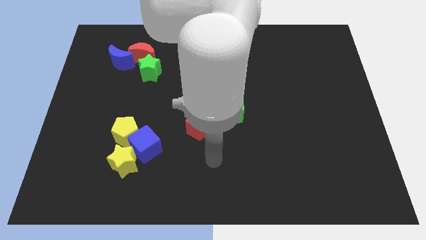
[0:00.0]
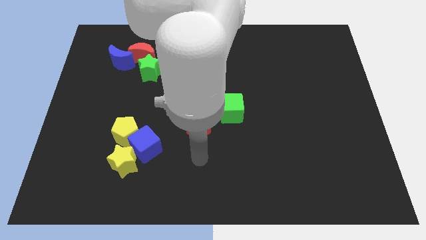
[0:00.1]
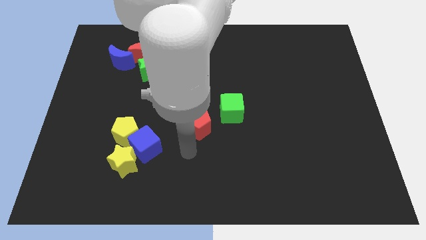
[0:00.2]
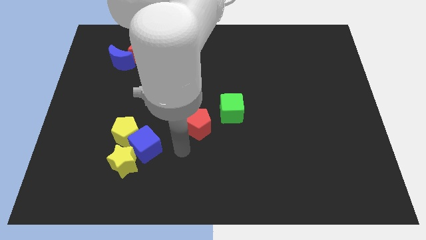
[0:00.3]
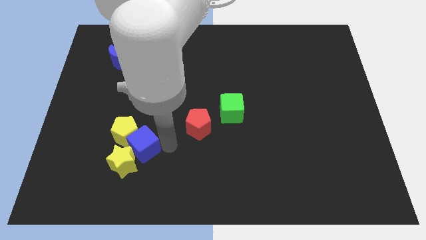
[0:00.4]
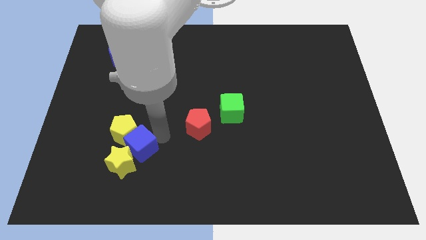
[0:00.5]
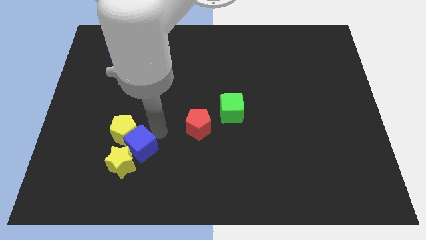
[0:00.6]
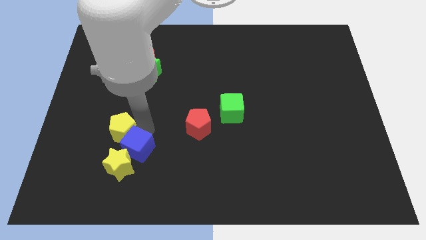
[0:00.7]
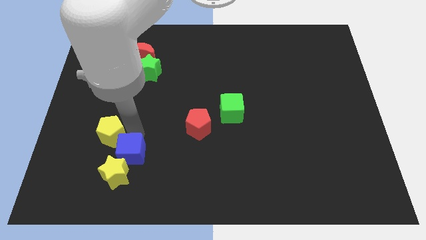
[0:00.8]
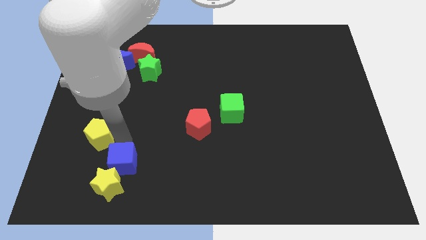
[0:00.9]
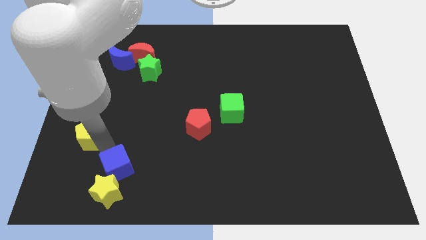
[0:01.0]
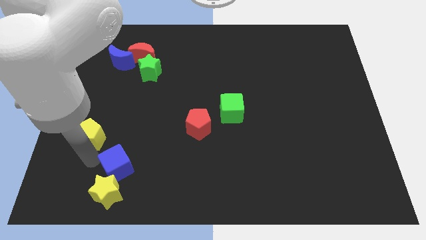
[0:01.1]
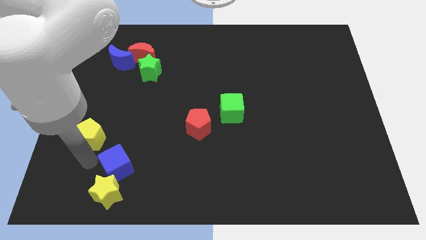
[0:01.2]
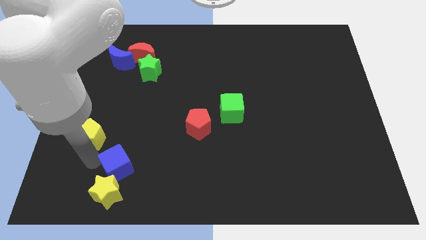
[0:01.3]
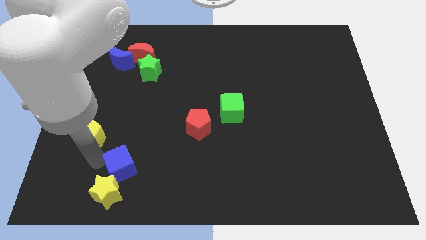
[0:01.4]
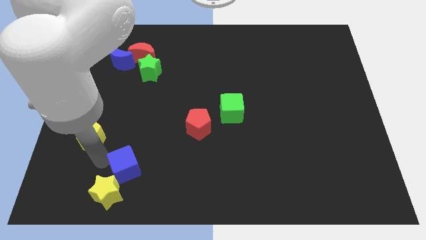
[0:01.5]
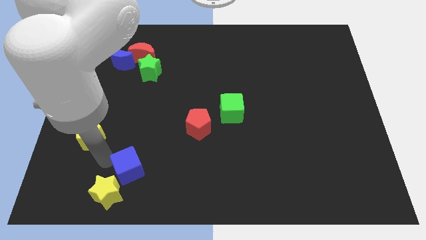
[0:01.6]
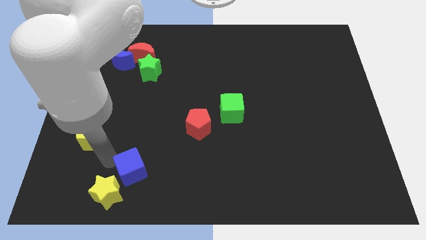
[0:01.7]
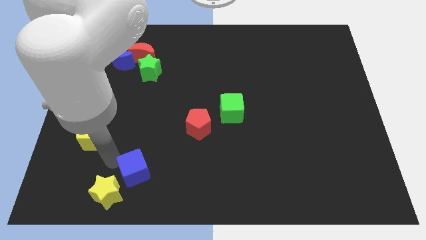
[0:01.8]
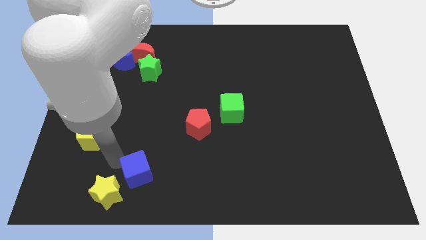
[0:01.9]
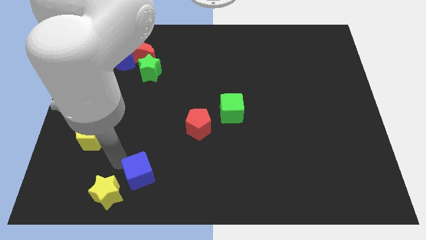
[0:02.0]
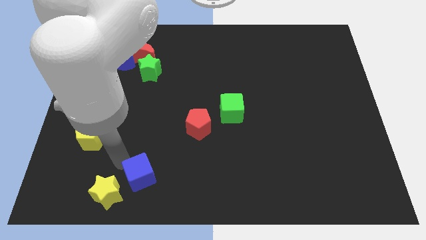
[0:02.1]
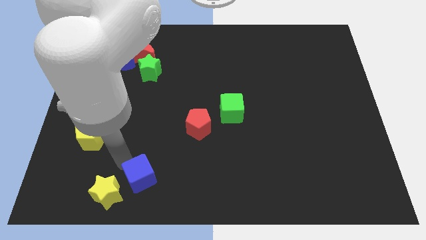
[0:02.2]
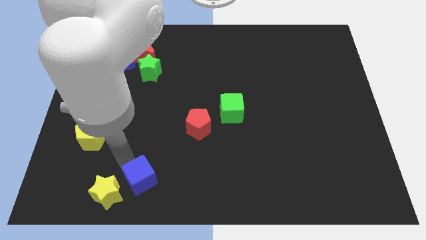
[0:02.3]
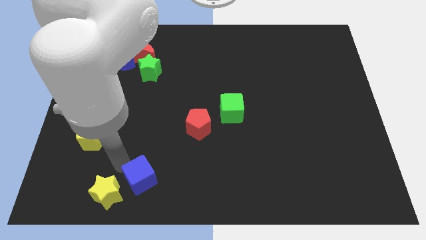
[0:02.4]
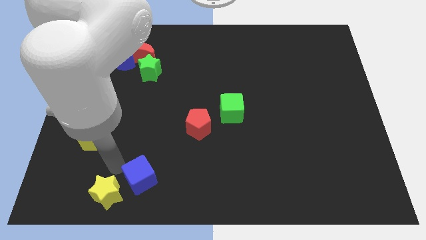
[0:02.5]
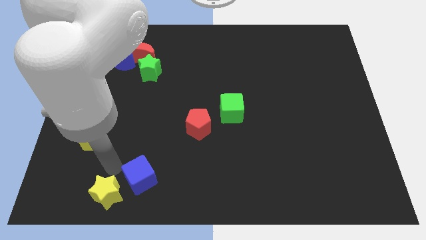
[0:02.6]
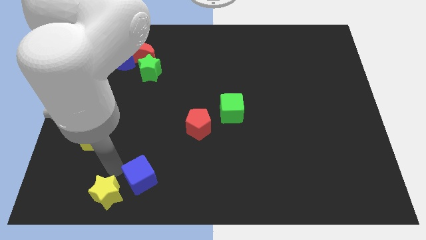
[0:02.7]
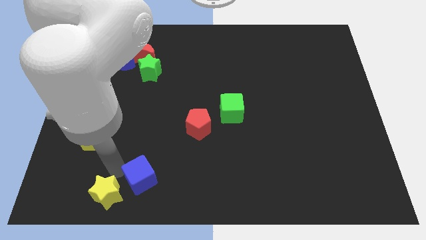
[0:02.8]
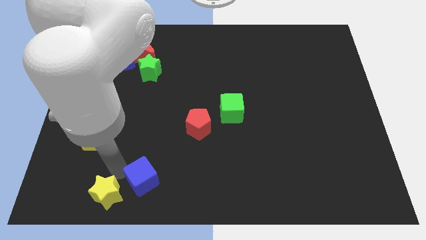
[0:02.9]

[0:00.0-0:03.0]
separate the blue cube from the yellow pentagon and yellow star

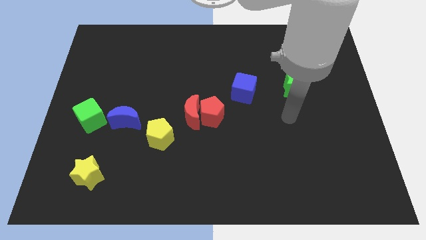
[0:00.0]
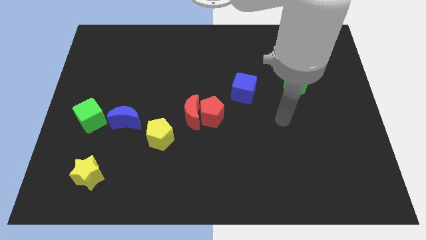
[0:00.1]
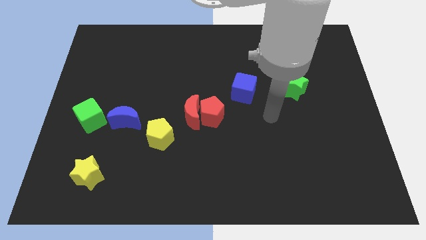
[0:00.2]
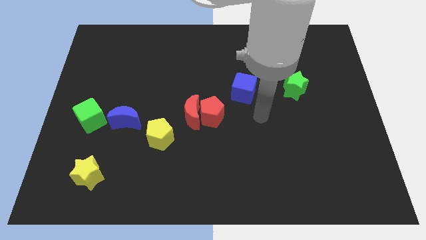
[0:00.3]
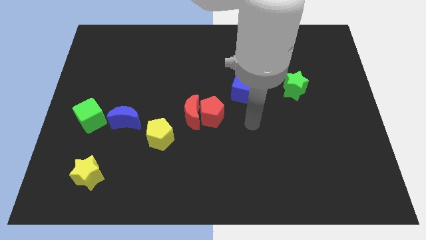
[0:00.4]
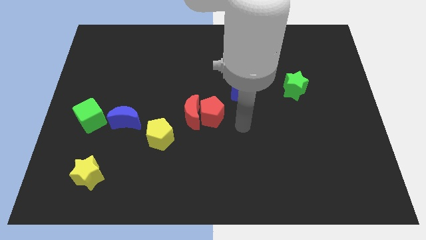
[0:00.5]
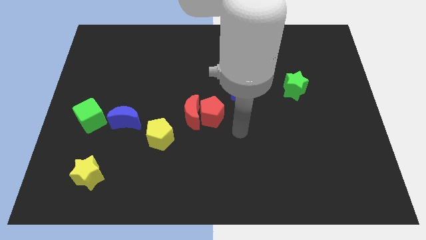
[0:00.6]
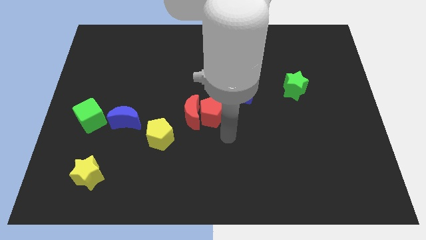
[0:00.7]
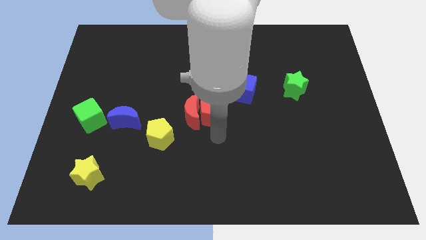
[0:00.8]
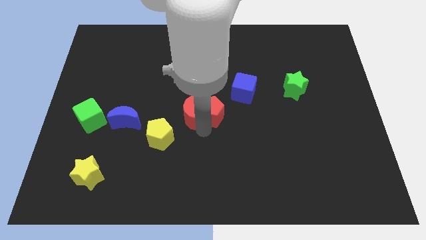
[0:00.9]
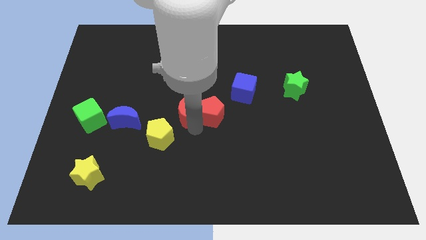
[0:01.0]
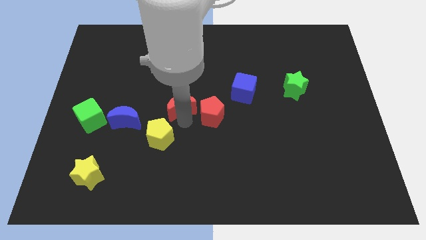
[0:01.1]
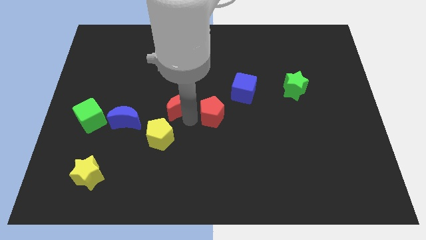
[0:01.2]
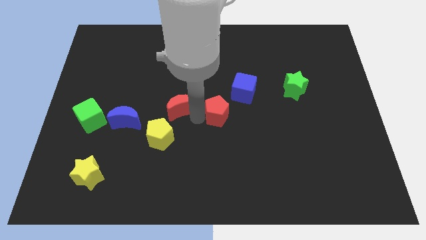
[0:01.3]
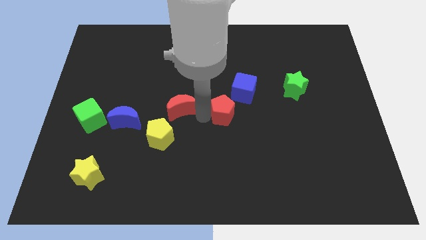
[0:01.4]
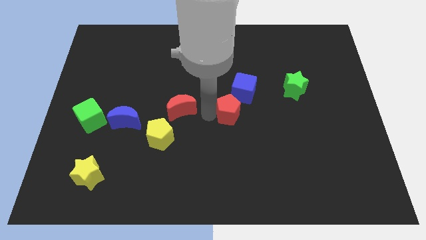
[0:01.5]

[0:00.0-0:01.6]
separate the red pentagon from the red moon

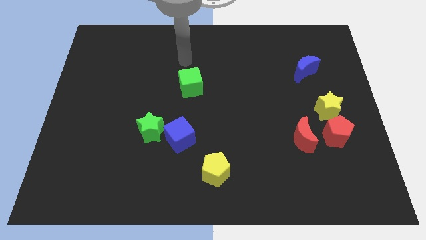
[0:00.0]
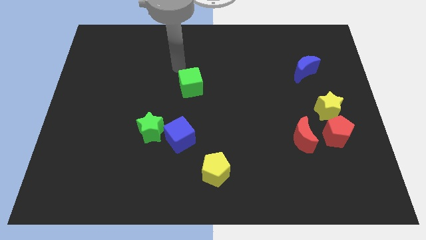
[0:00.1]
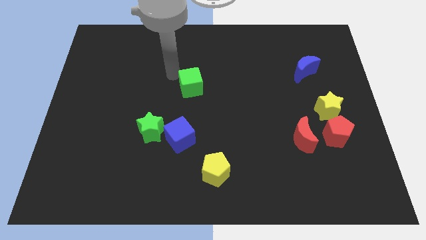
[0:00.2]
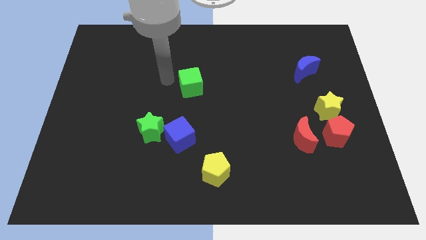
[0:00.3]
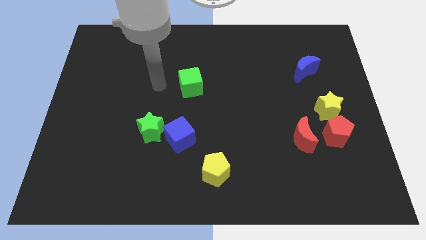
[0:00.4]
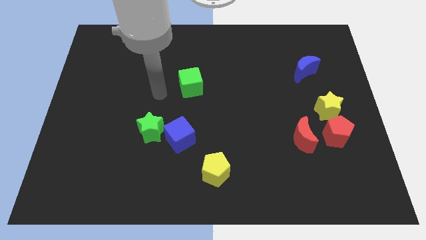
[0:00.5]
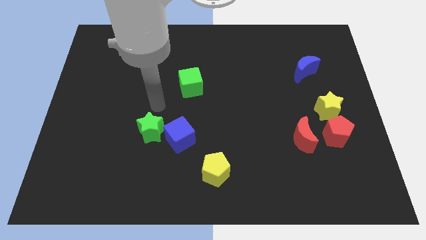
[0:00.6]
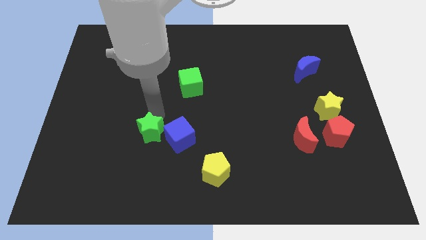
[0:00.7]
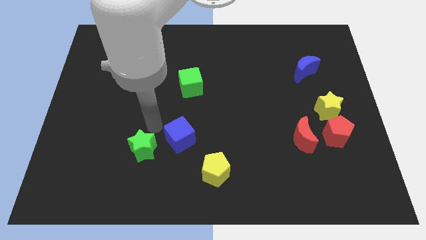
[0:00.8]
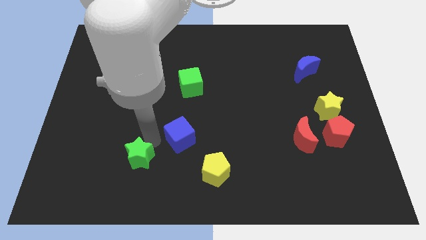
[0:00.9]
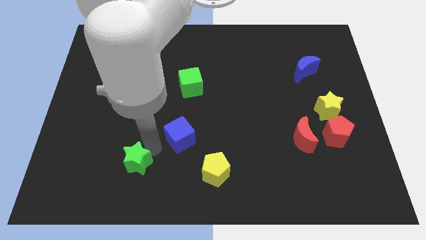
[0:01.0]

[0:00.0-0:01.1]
pull the blue cube apart from the green star

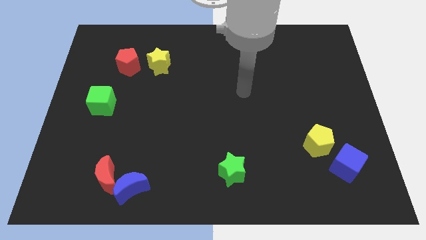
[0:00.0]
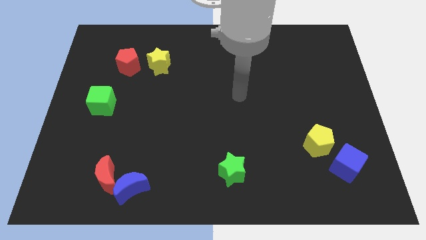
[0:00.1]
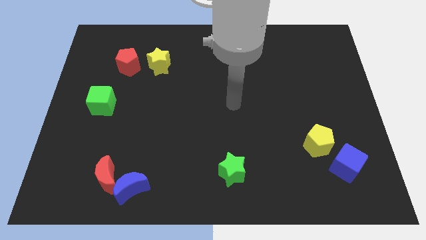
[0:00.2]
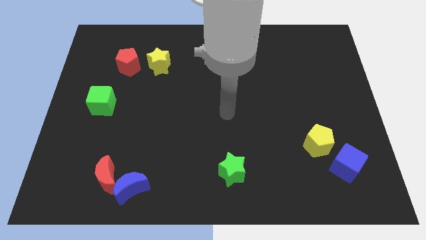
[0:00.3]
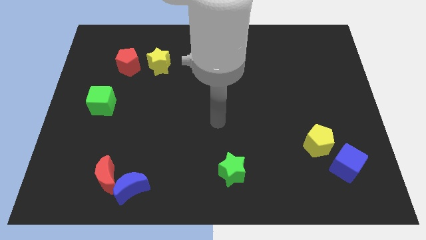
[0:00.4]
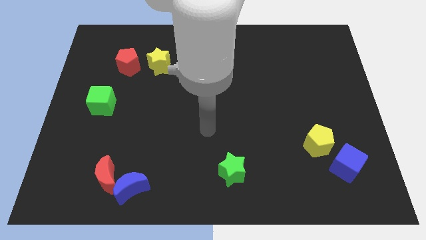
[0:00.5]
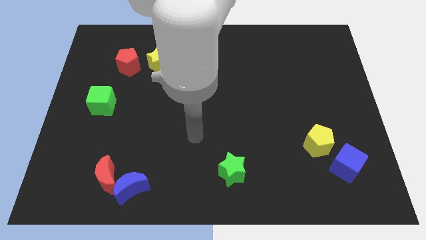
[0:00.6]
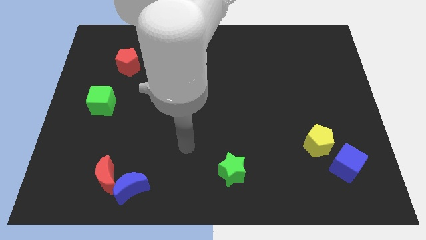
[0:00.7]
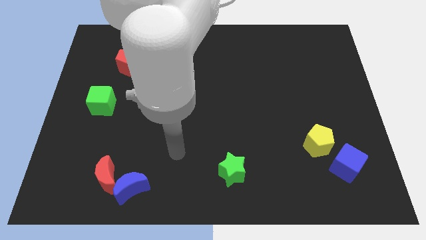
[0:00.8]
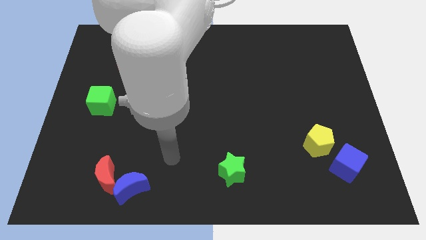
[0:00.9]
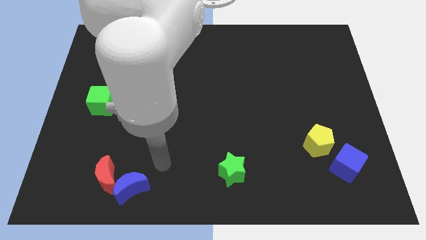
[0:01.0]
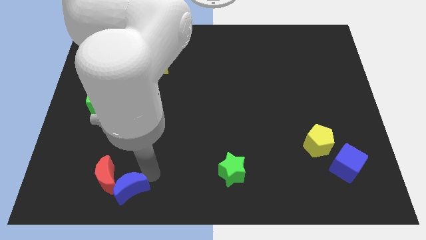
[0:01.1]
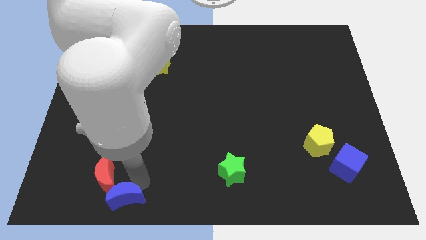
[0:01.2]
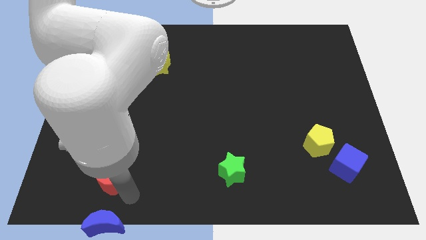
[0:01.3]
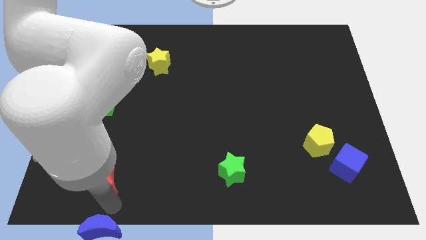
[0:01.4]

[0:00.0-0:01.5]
separate the red moon from the blue moon

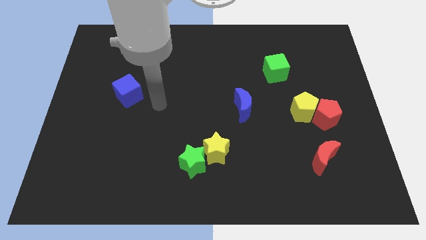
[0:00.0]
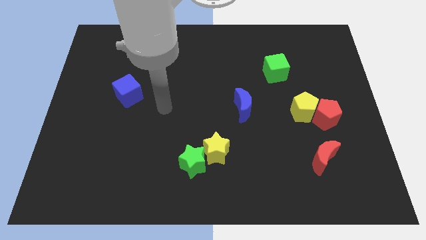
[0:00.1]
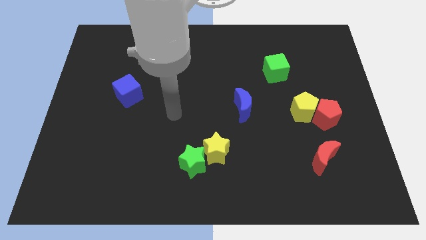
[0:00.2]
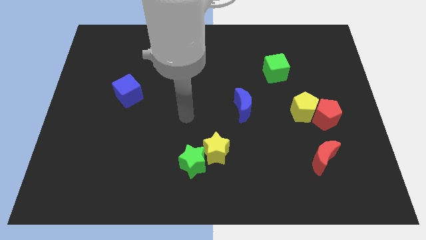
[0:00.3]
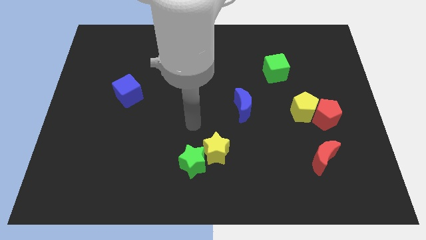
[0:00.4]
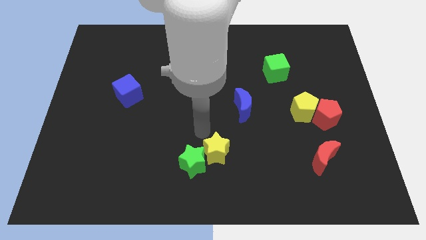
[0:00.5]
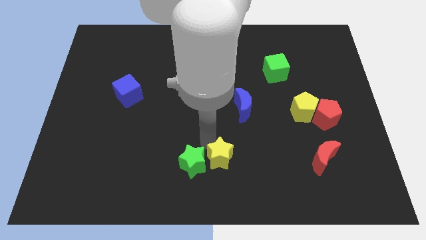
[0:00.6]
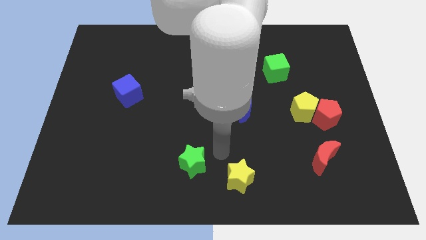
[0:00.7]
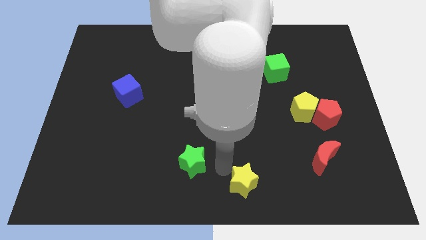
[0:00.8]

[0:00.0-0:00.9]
pull the green star apart from the yellow star

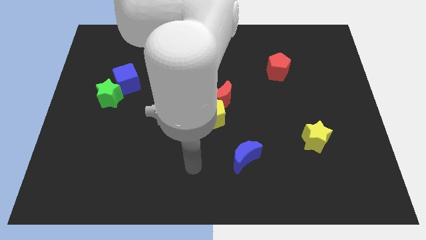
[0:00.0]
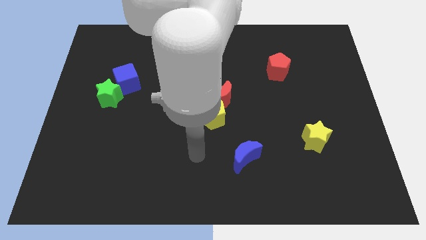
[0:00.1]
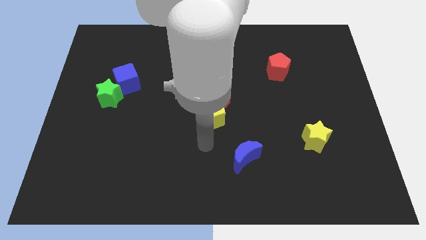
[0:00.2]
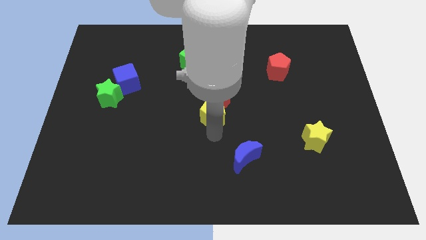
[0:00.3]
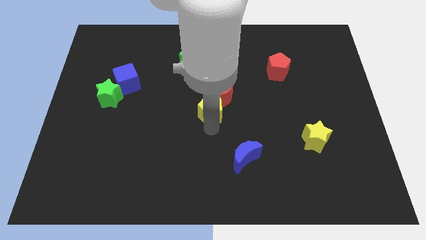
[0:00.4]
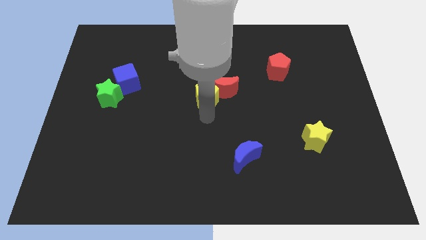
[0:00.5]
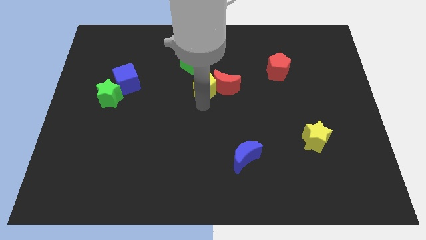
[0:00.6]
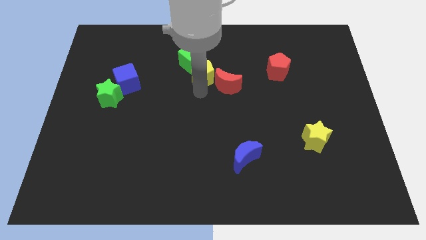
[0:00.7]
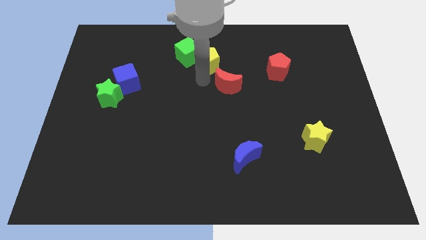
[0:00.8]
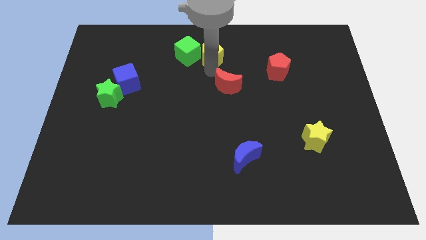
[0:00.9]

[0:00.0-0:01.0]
pull the red moon apart from the yellow pentagon

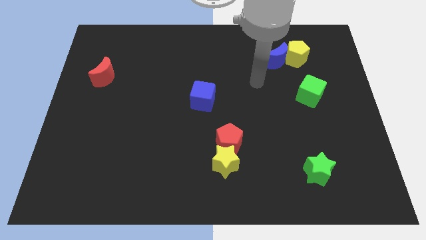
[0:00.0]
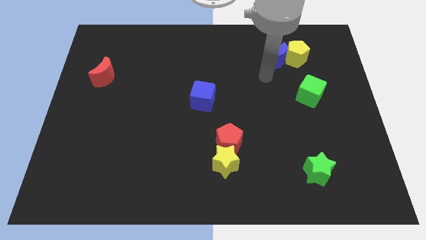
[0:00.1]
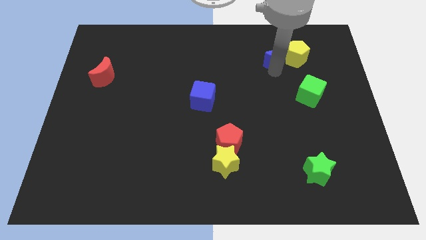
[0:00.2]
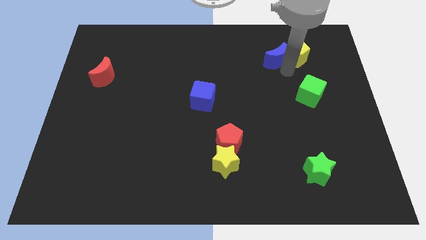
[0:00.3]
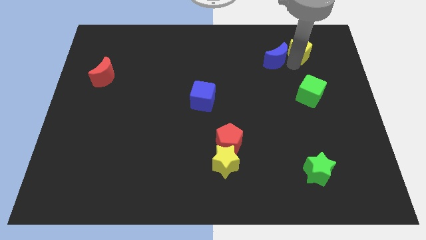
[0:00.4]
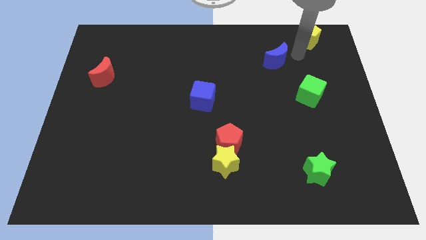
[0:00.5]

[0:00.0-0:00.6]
move the blue moon away from the yellow pentagon
